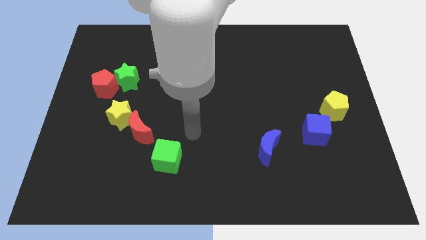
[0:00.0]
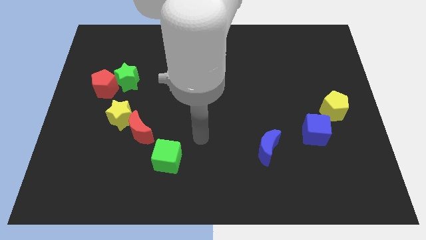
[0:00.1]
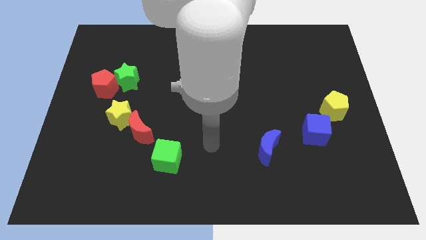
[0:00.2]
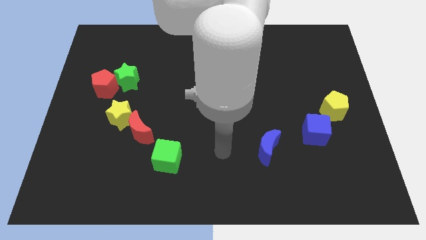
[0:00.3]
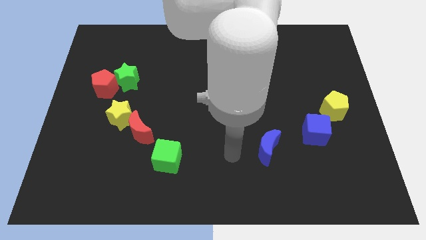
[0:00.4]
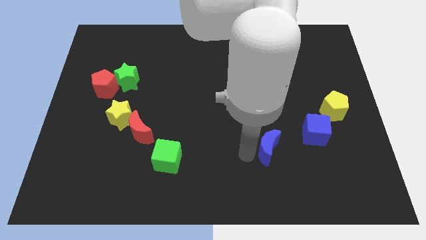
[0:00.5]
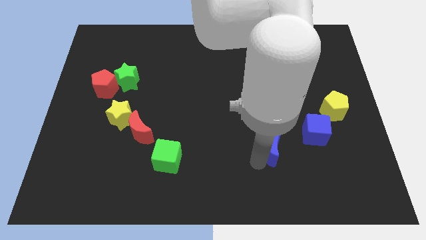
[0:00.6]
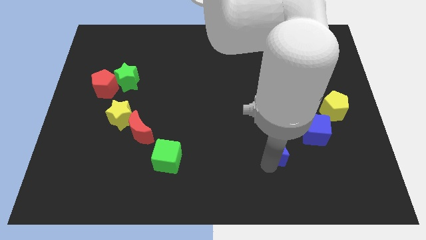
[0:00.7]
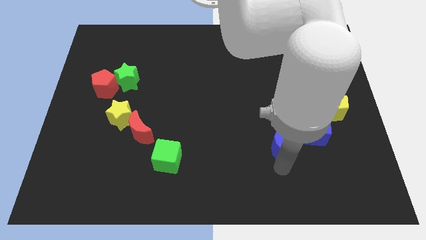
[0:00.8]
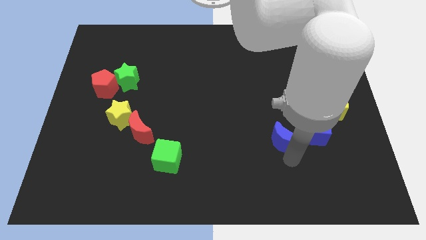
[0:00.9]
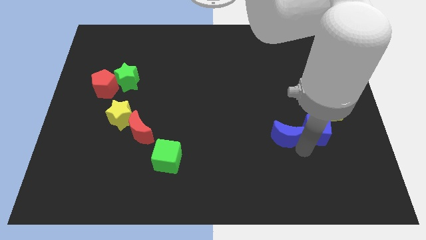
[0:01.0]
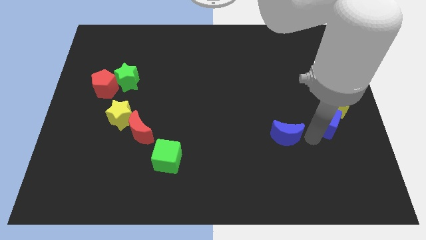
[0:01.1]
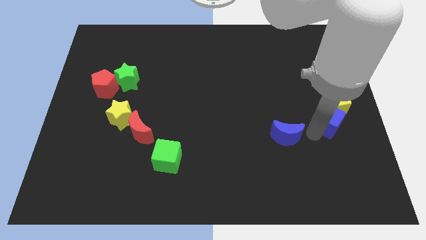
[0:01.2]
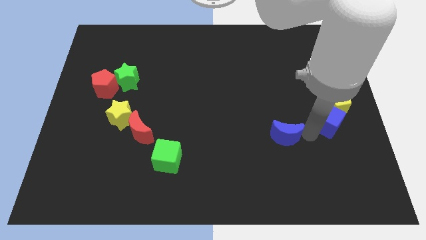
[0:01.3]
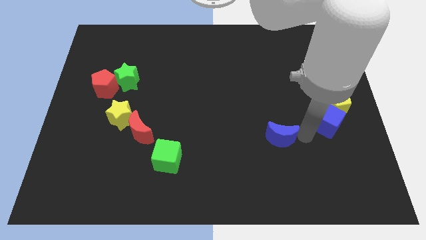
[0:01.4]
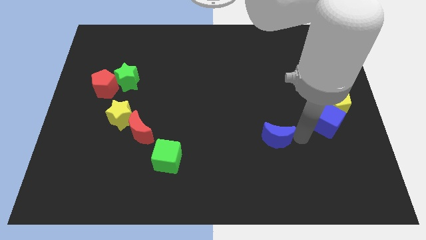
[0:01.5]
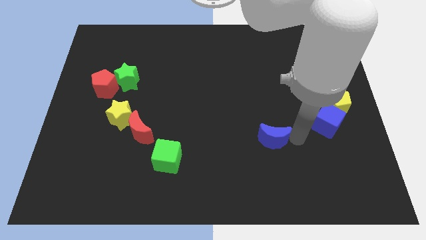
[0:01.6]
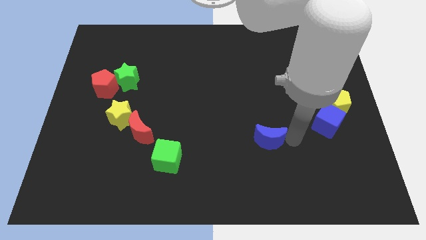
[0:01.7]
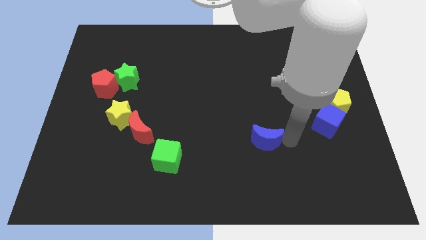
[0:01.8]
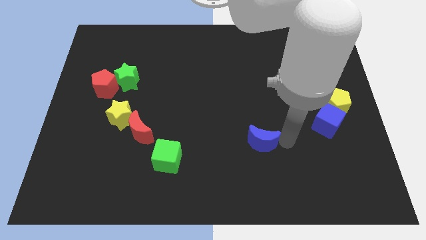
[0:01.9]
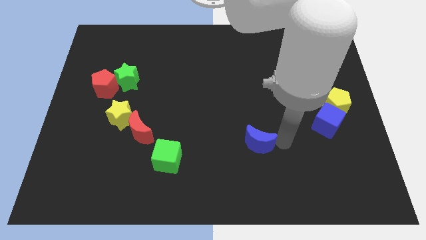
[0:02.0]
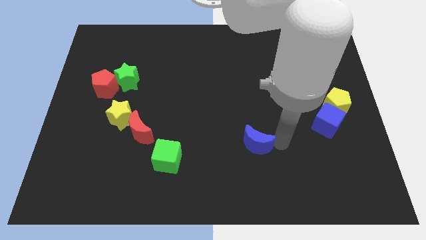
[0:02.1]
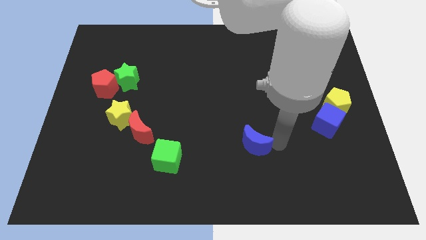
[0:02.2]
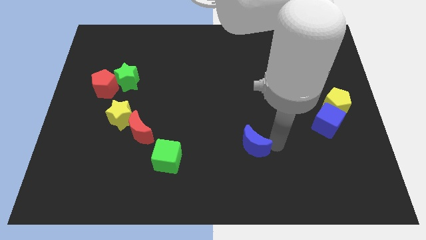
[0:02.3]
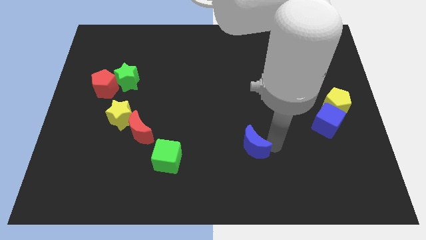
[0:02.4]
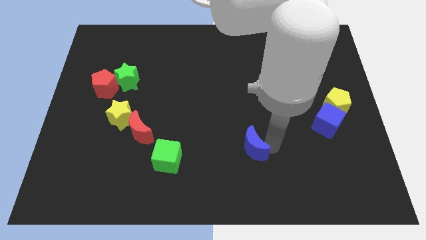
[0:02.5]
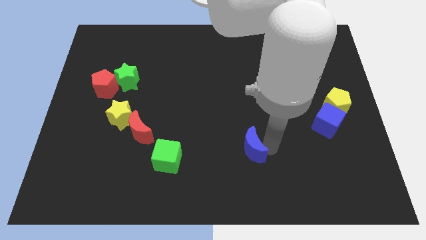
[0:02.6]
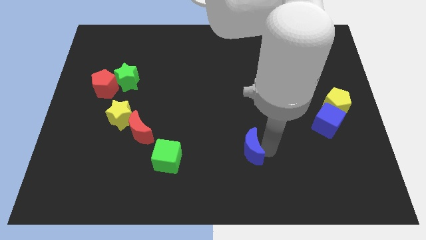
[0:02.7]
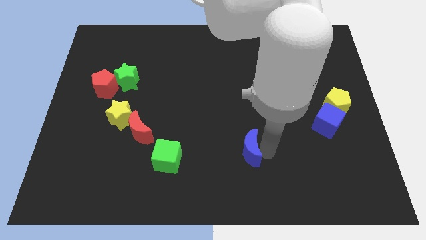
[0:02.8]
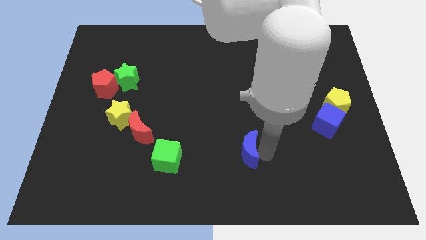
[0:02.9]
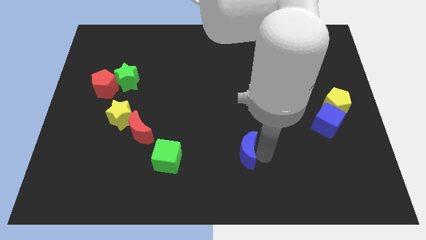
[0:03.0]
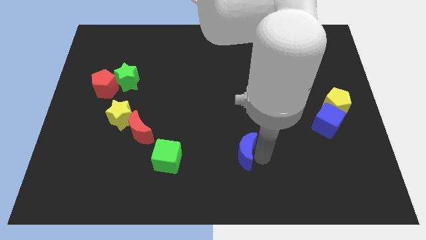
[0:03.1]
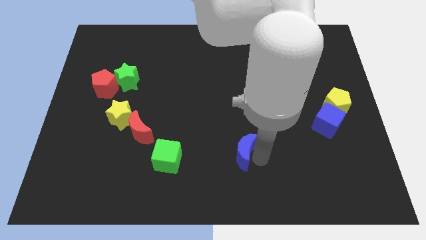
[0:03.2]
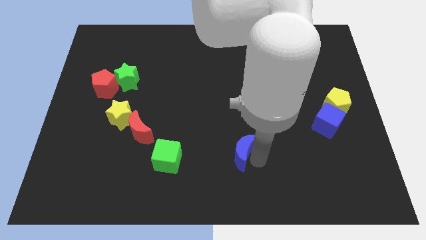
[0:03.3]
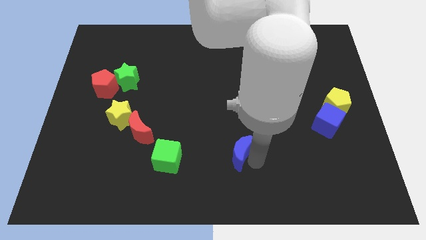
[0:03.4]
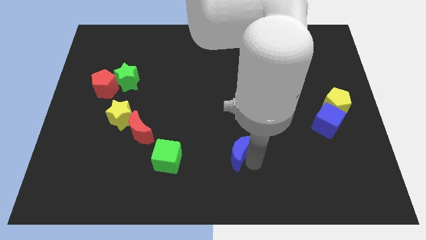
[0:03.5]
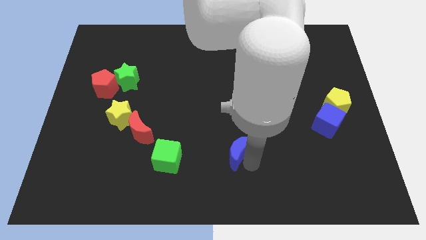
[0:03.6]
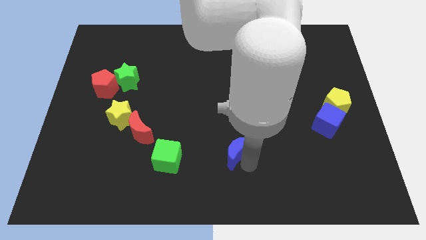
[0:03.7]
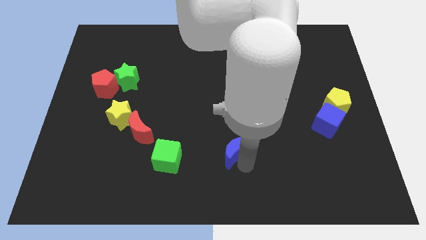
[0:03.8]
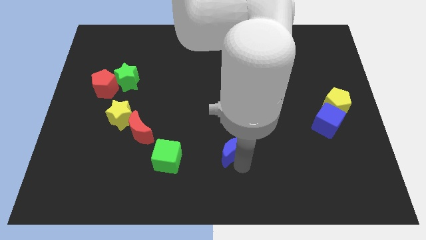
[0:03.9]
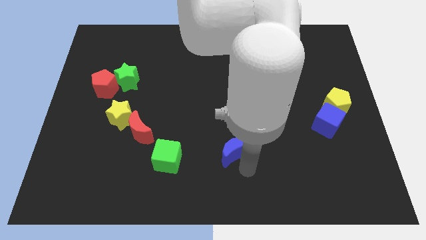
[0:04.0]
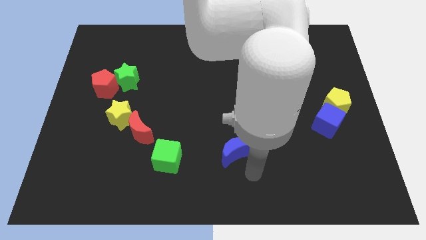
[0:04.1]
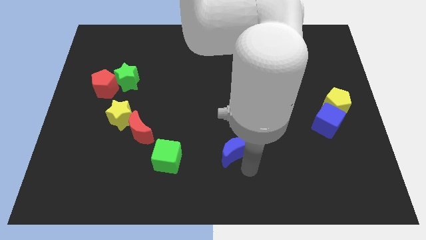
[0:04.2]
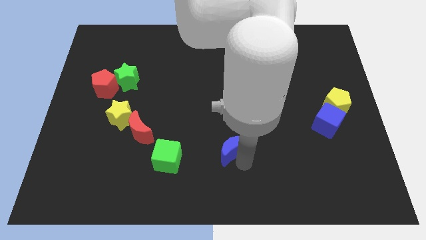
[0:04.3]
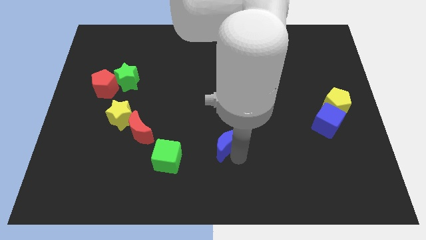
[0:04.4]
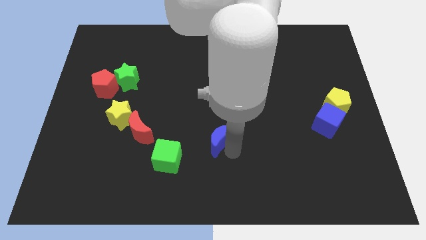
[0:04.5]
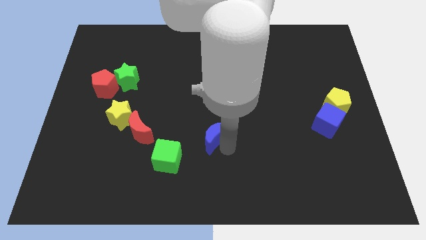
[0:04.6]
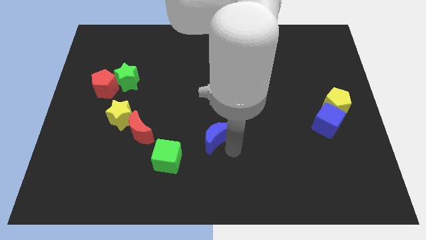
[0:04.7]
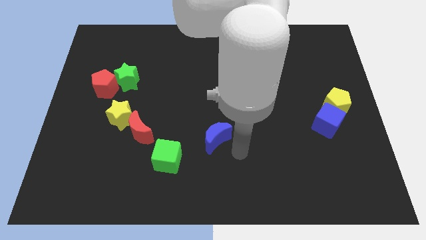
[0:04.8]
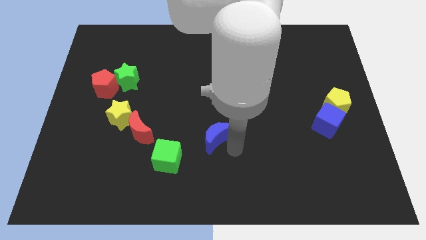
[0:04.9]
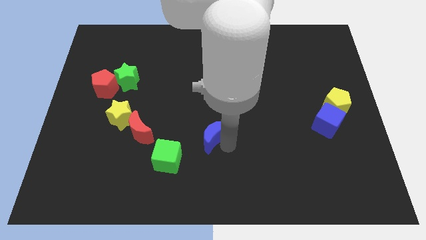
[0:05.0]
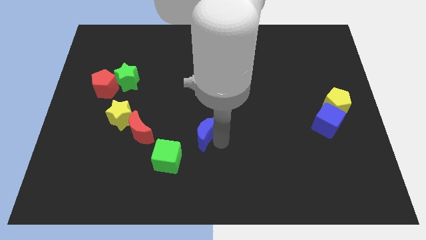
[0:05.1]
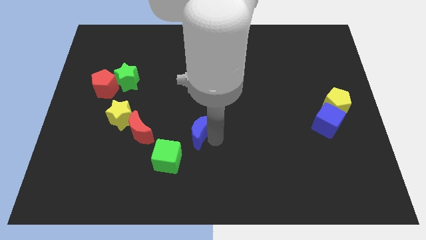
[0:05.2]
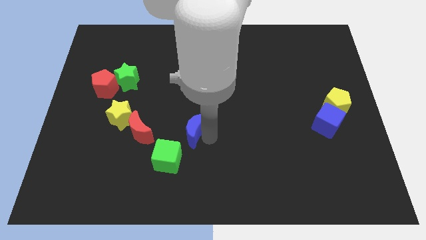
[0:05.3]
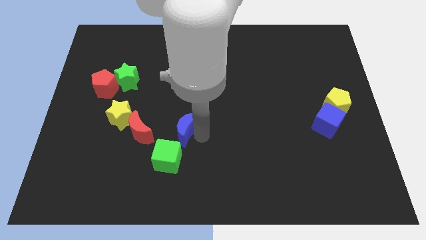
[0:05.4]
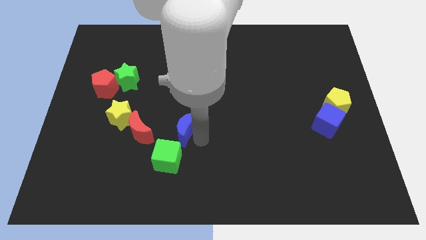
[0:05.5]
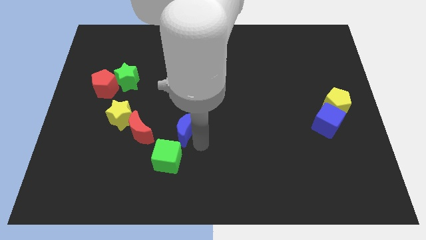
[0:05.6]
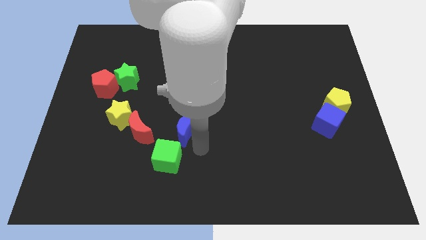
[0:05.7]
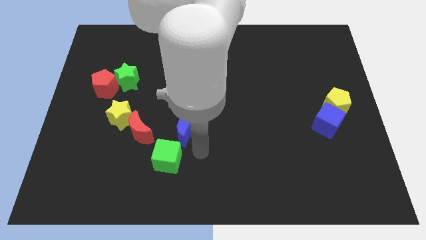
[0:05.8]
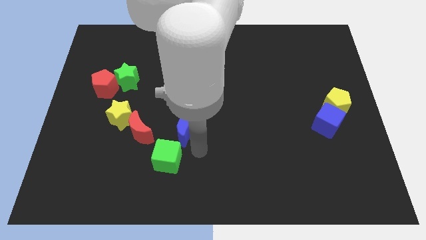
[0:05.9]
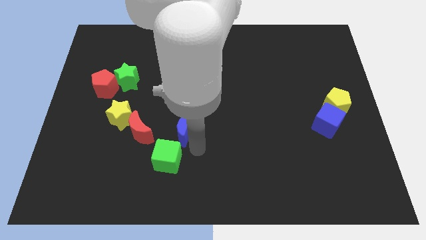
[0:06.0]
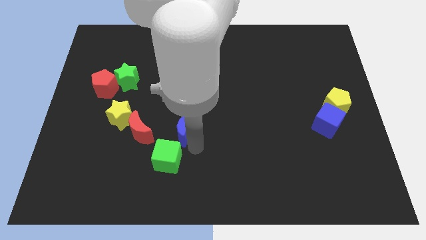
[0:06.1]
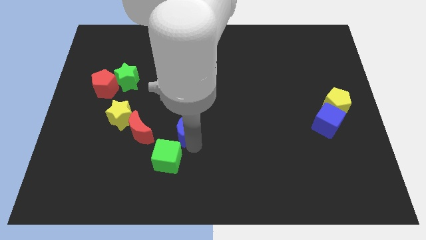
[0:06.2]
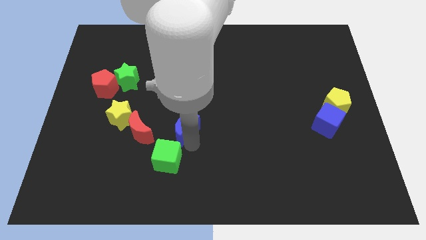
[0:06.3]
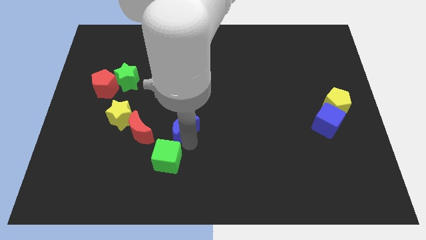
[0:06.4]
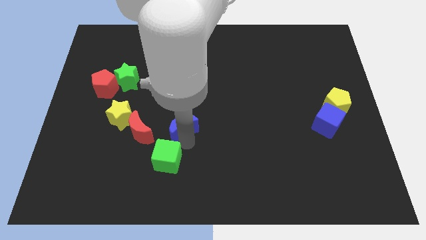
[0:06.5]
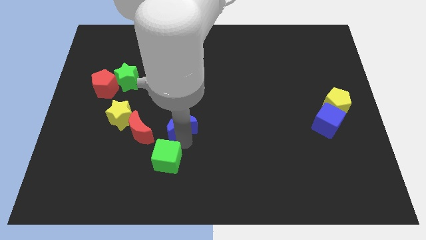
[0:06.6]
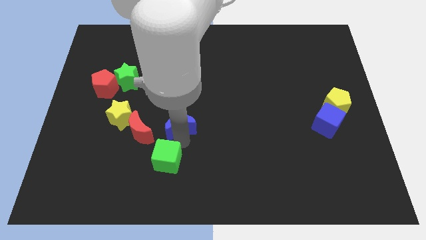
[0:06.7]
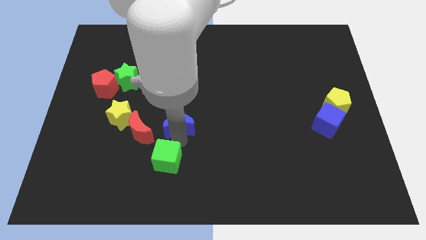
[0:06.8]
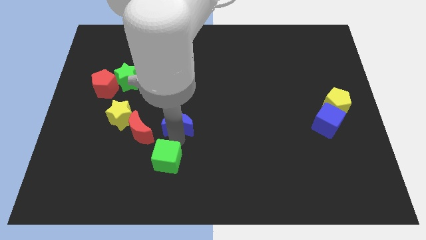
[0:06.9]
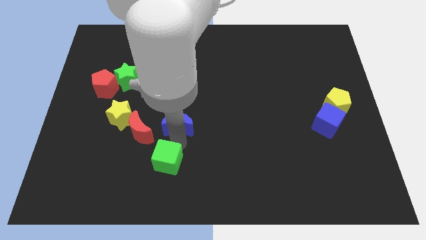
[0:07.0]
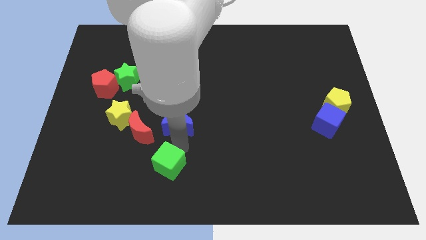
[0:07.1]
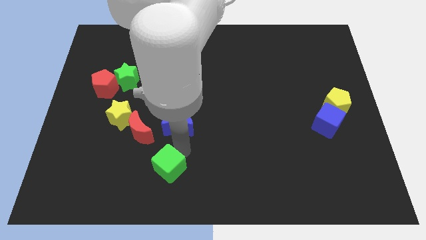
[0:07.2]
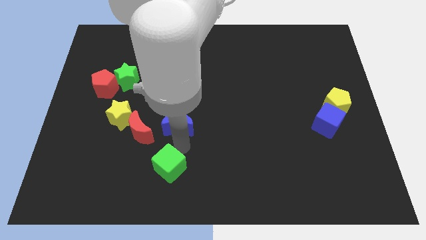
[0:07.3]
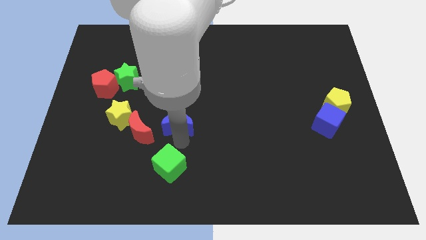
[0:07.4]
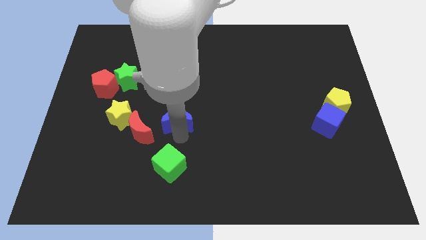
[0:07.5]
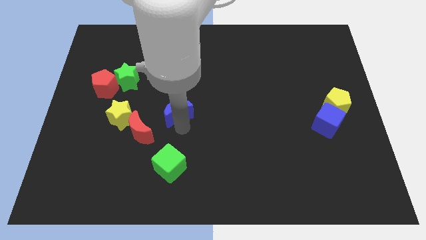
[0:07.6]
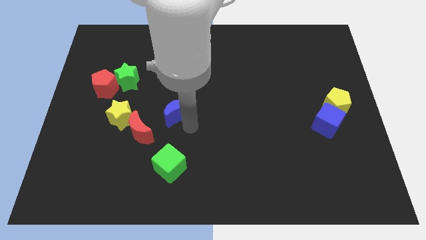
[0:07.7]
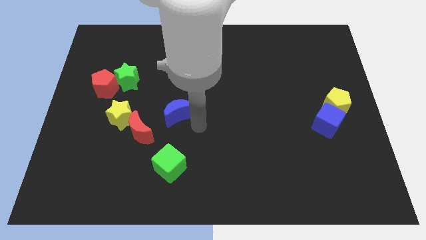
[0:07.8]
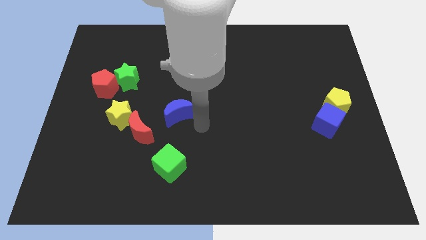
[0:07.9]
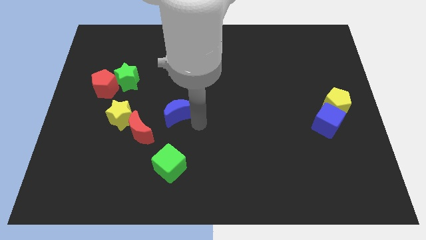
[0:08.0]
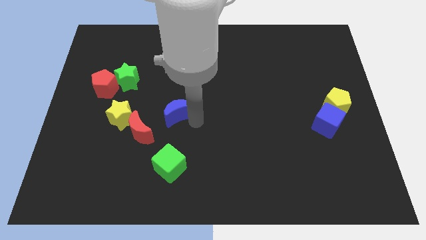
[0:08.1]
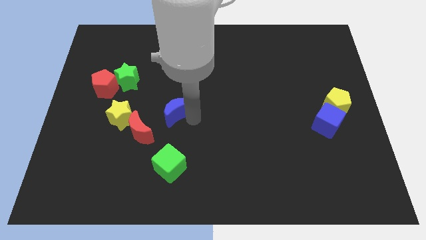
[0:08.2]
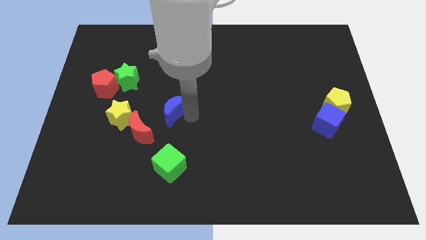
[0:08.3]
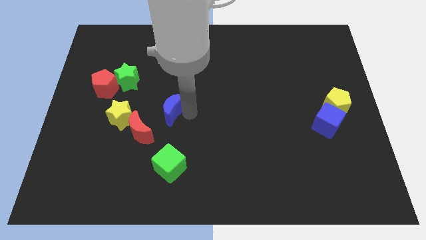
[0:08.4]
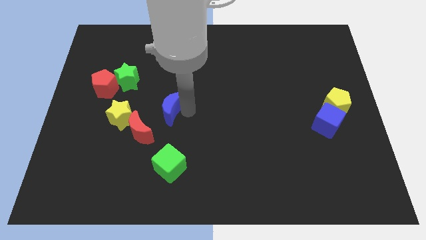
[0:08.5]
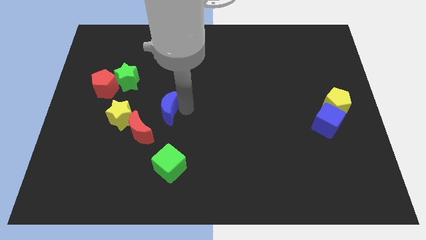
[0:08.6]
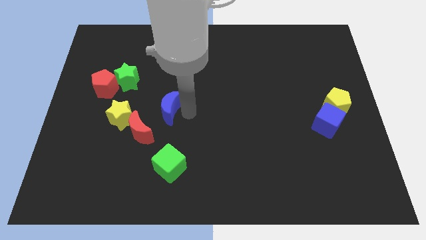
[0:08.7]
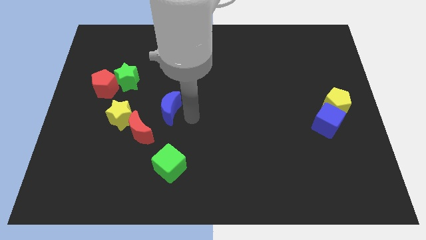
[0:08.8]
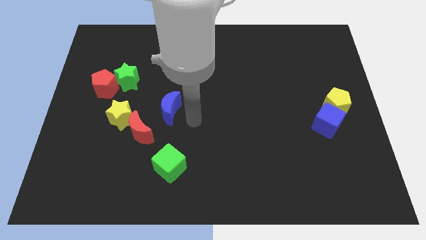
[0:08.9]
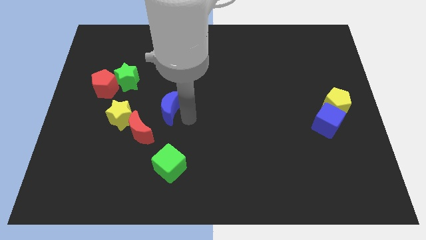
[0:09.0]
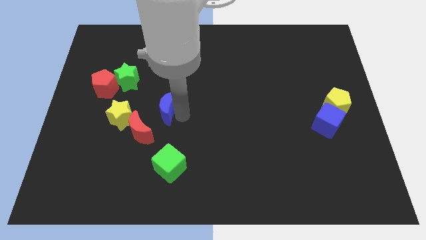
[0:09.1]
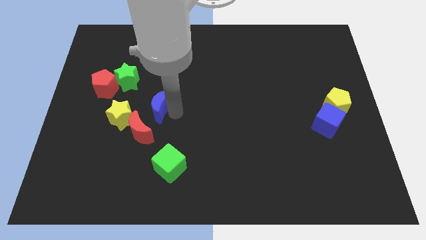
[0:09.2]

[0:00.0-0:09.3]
slide the blue moon to the top right side of the yellow star
